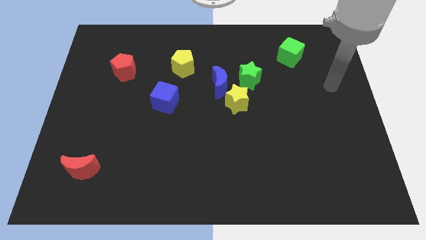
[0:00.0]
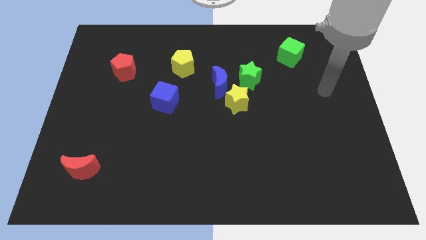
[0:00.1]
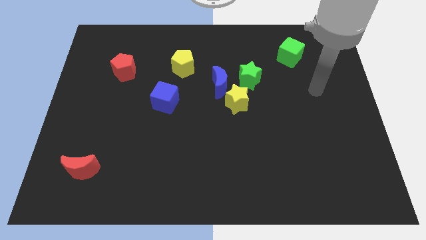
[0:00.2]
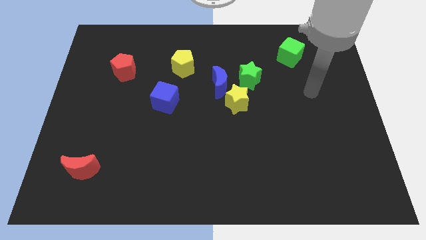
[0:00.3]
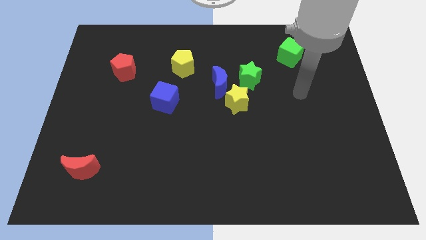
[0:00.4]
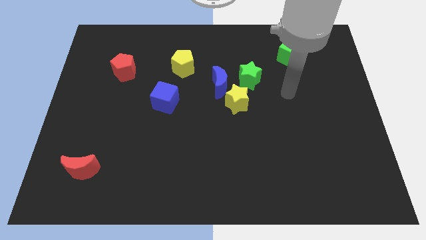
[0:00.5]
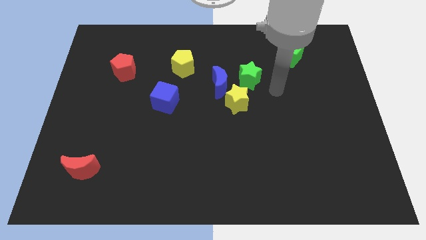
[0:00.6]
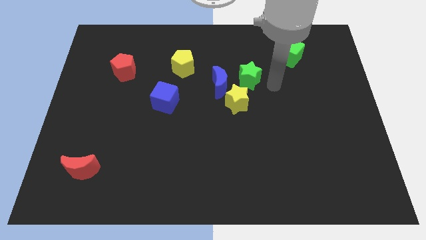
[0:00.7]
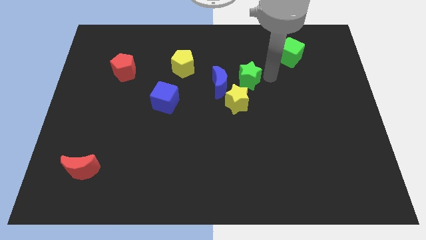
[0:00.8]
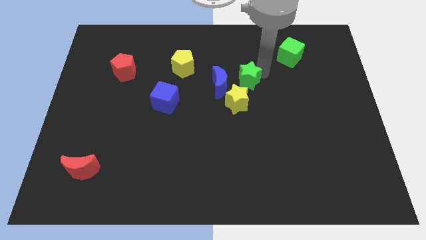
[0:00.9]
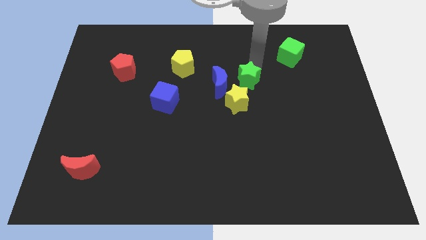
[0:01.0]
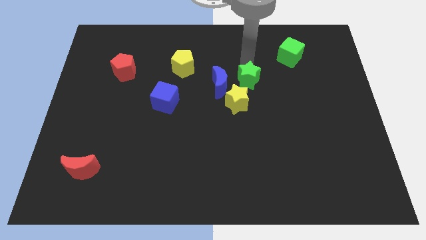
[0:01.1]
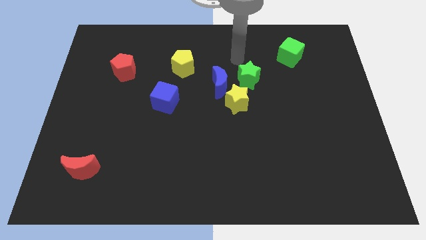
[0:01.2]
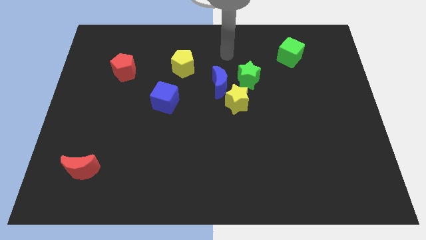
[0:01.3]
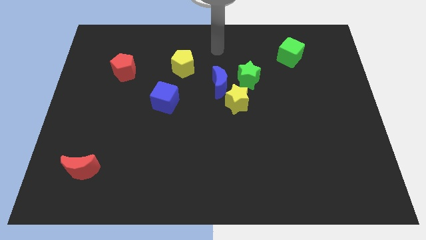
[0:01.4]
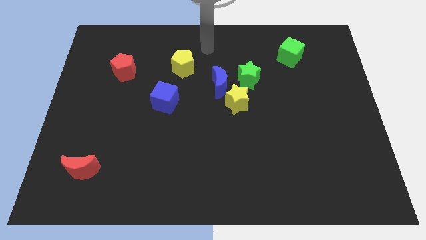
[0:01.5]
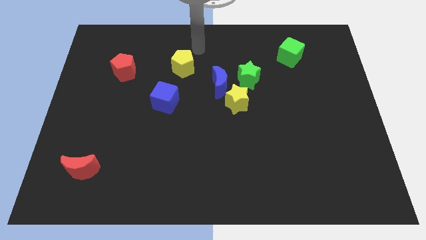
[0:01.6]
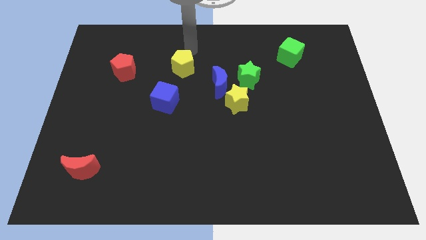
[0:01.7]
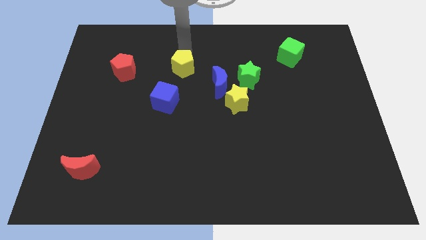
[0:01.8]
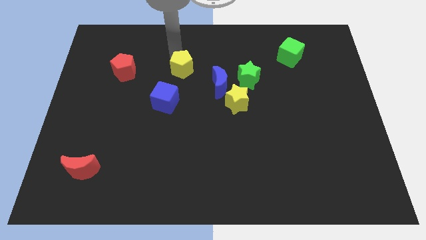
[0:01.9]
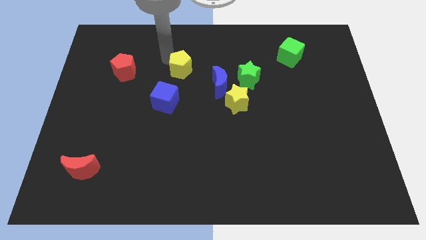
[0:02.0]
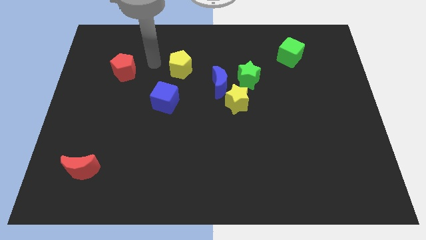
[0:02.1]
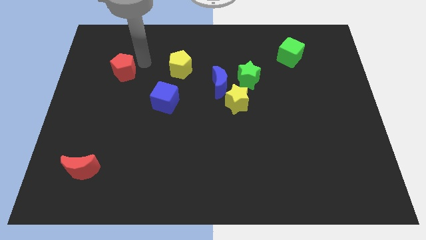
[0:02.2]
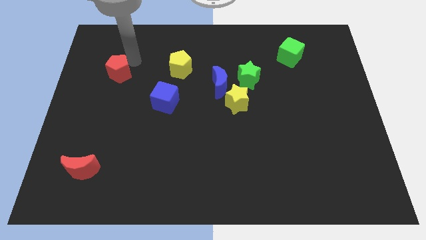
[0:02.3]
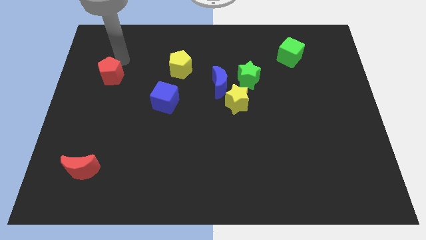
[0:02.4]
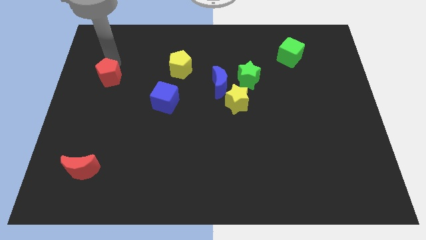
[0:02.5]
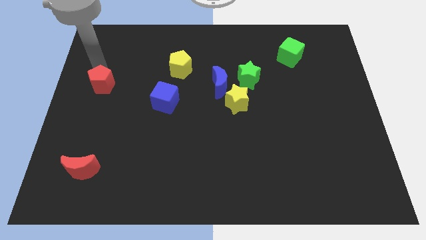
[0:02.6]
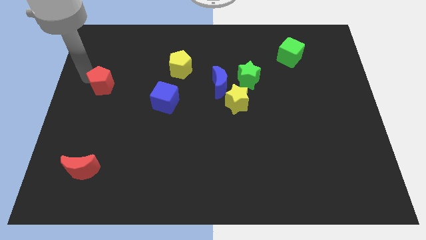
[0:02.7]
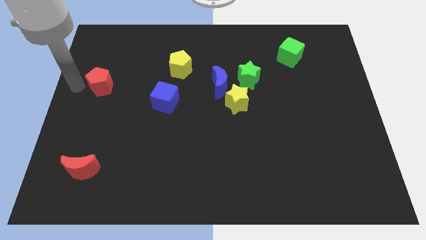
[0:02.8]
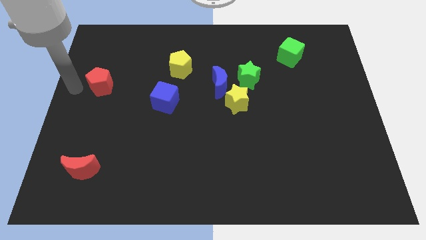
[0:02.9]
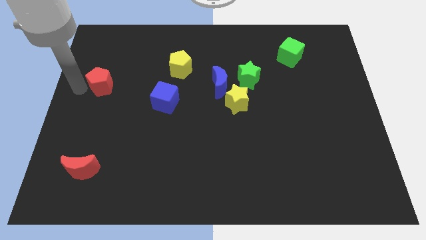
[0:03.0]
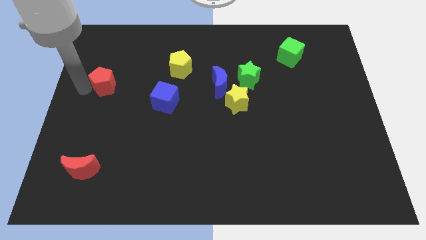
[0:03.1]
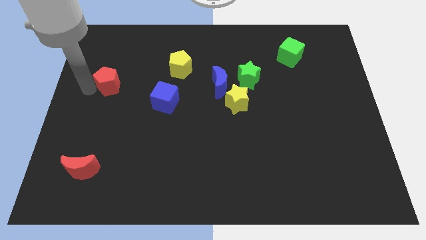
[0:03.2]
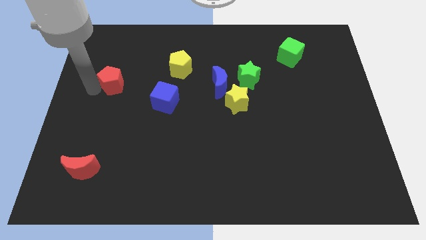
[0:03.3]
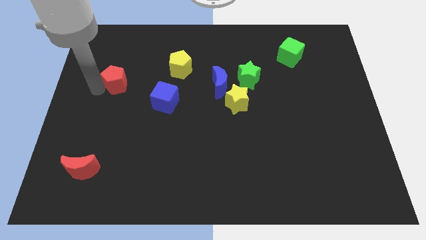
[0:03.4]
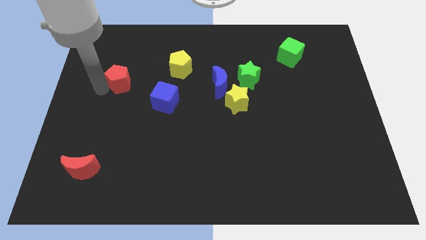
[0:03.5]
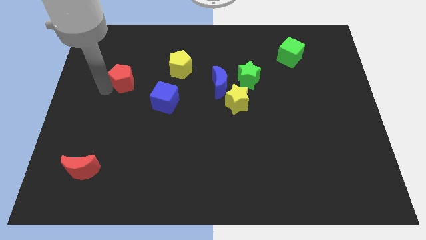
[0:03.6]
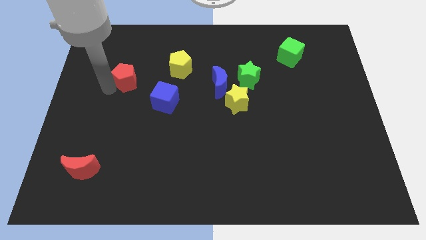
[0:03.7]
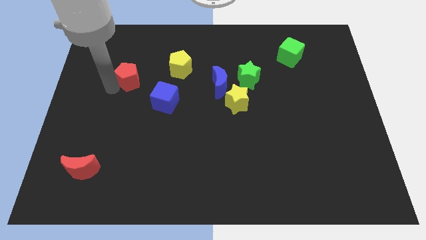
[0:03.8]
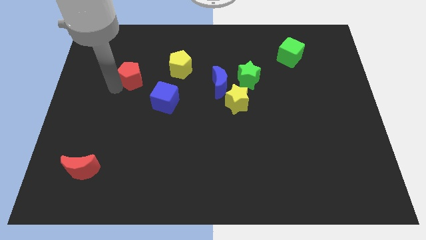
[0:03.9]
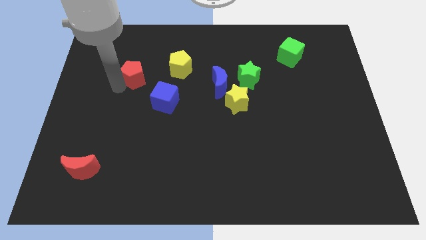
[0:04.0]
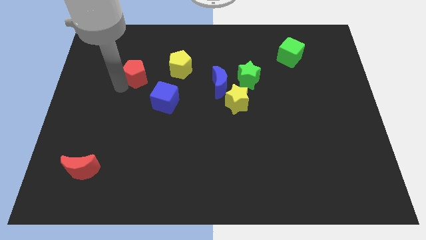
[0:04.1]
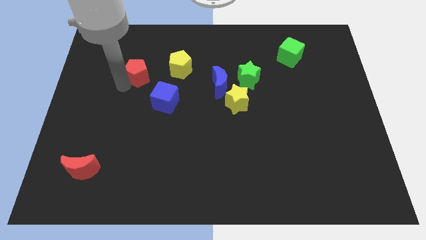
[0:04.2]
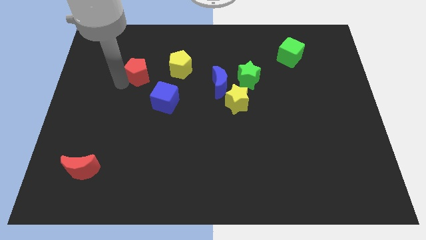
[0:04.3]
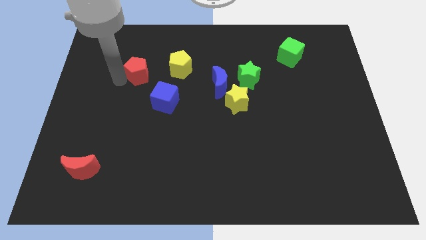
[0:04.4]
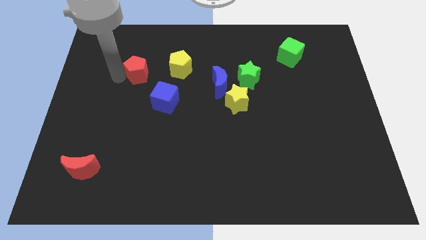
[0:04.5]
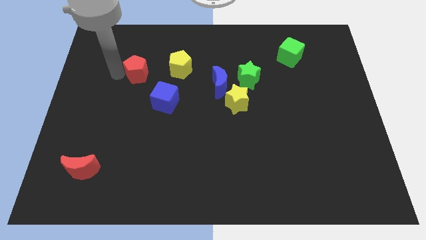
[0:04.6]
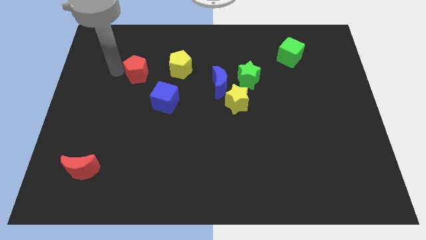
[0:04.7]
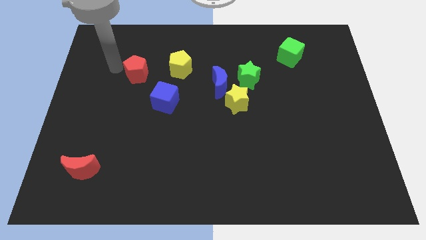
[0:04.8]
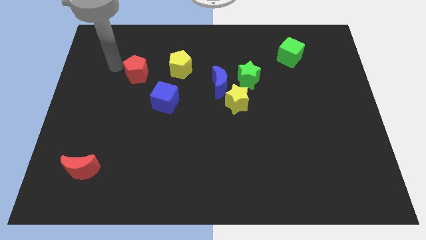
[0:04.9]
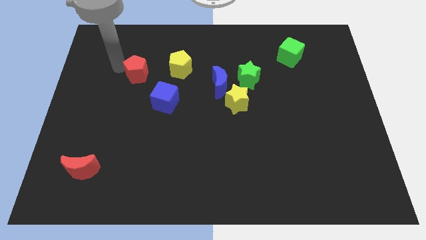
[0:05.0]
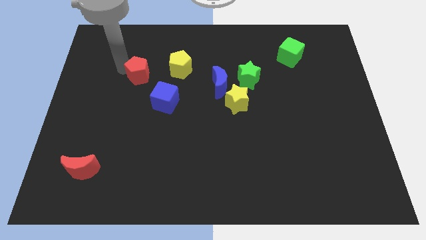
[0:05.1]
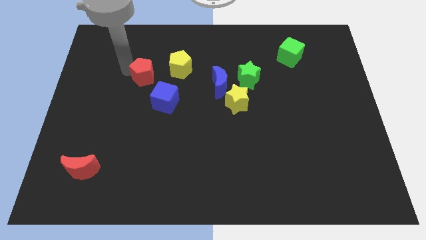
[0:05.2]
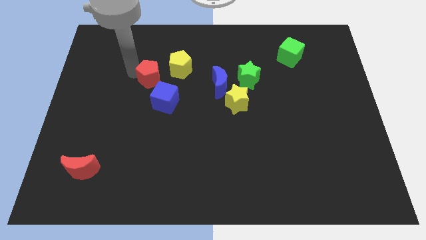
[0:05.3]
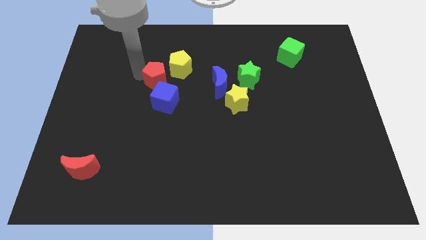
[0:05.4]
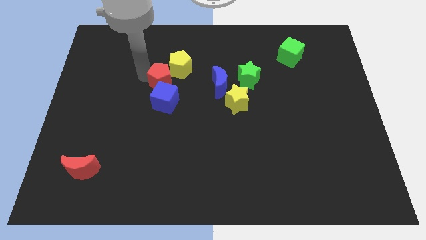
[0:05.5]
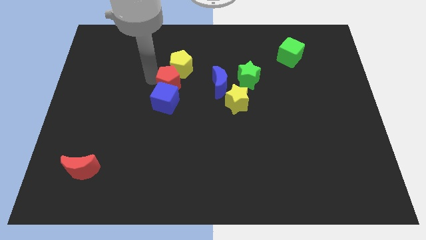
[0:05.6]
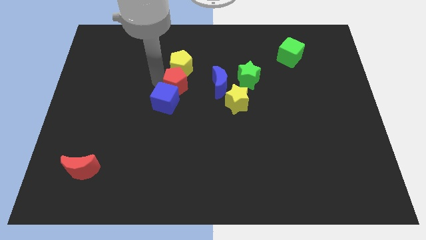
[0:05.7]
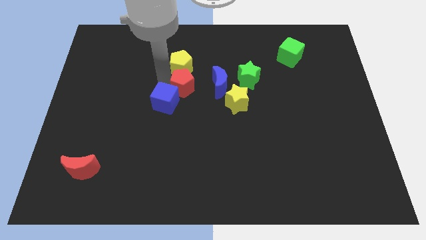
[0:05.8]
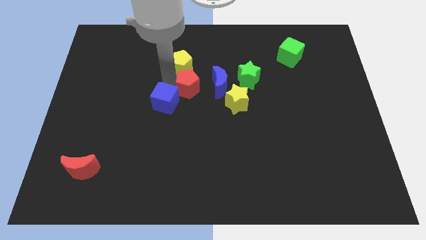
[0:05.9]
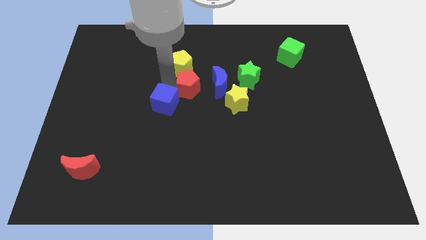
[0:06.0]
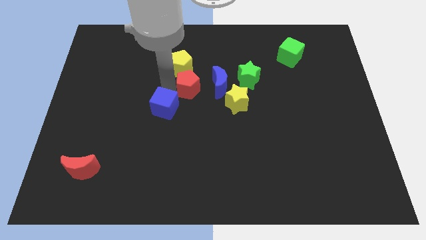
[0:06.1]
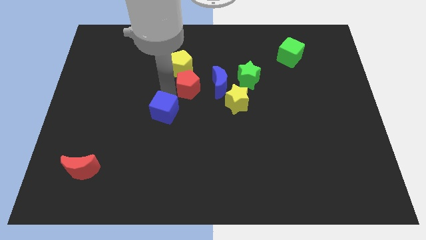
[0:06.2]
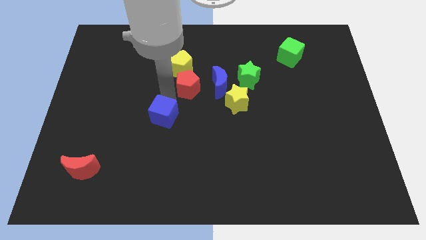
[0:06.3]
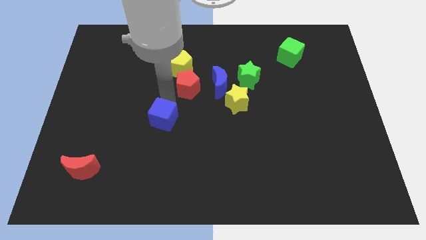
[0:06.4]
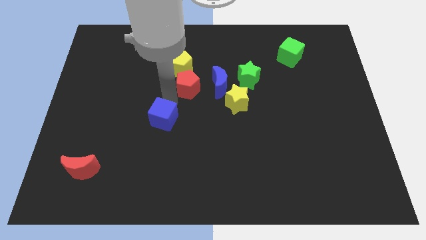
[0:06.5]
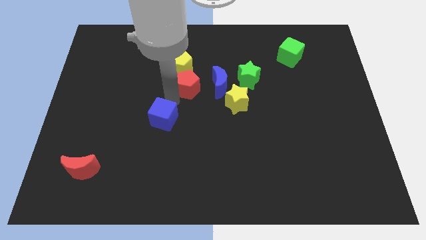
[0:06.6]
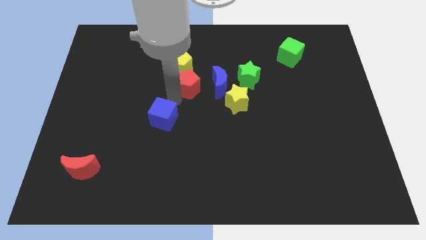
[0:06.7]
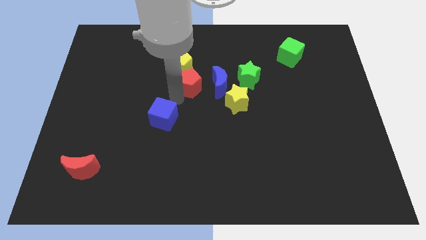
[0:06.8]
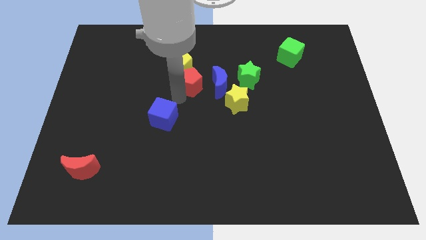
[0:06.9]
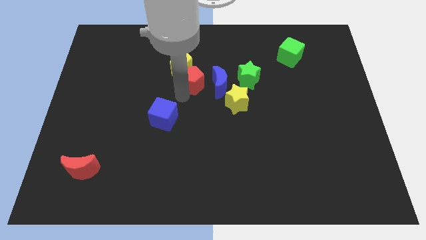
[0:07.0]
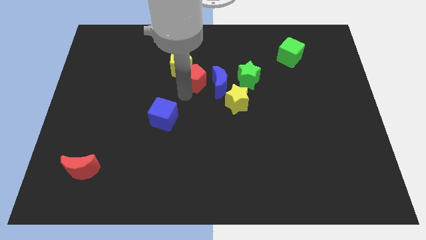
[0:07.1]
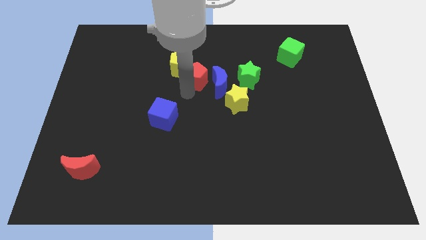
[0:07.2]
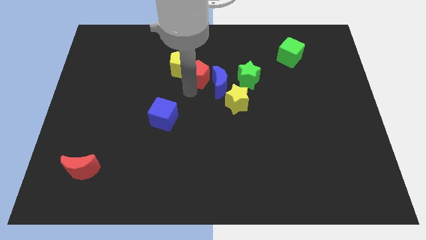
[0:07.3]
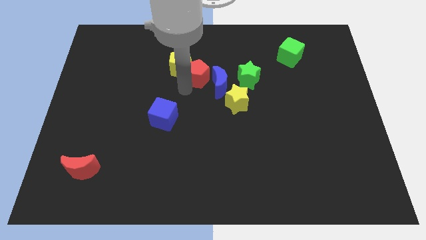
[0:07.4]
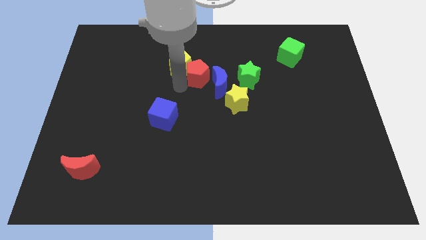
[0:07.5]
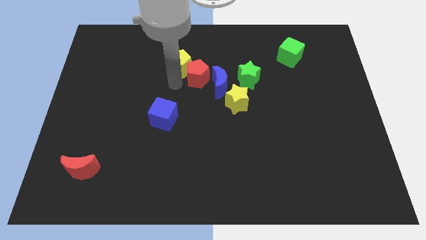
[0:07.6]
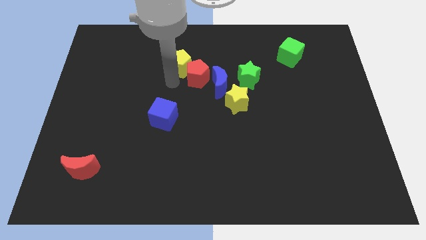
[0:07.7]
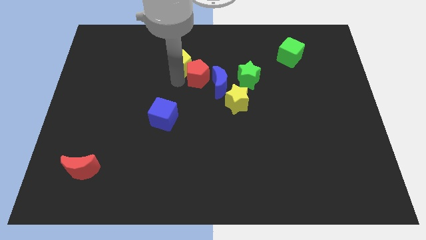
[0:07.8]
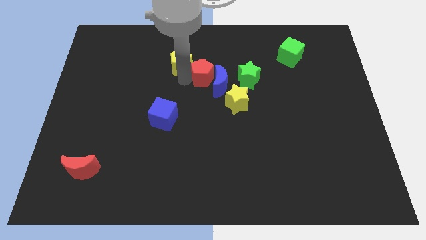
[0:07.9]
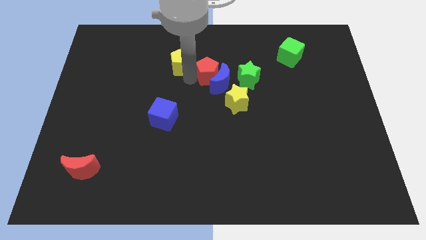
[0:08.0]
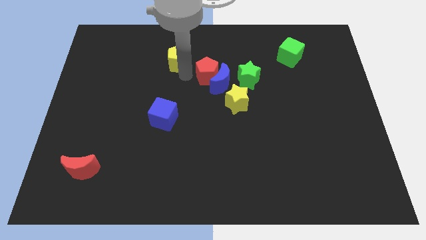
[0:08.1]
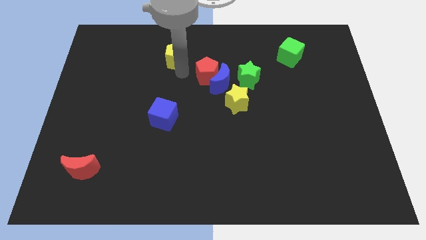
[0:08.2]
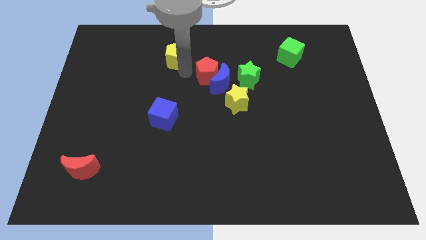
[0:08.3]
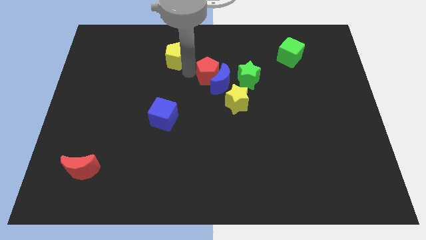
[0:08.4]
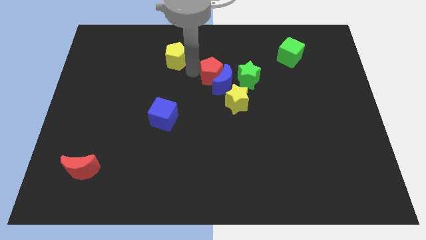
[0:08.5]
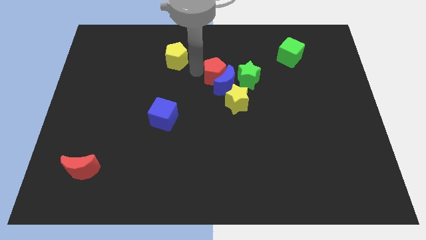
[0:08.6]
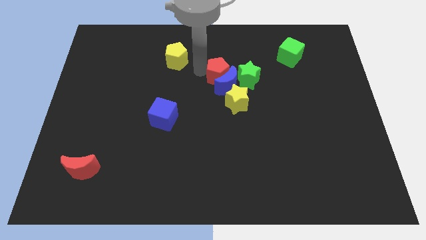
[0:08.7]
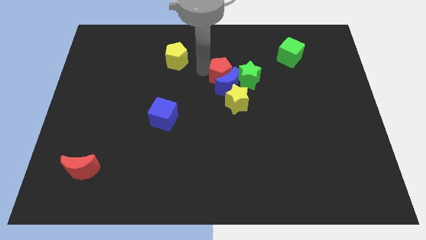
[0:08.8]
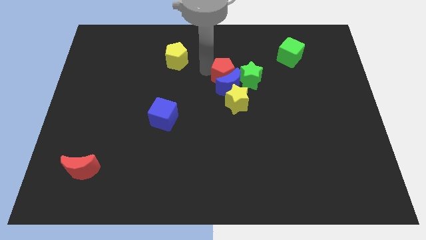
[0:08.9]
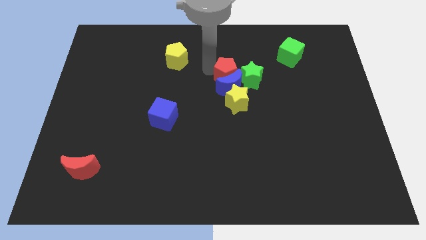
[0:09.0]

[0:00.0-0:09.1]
move the red pentagon close to the green star
